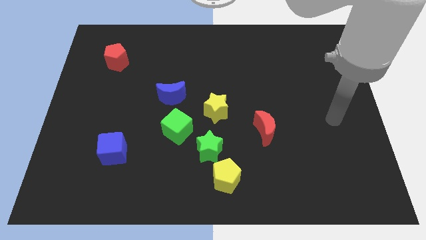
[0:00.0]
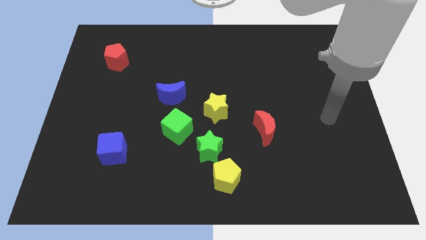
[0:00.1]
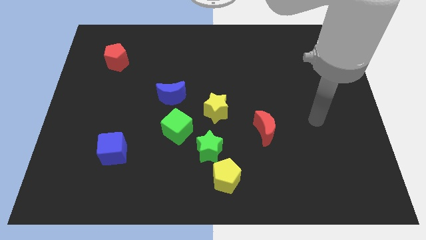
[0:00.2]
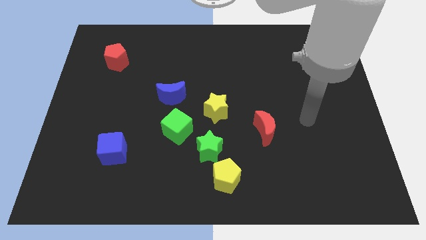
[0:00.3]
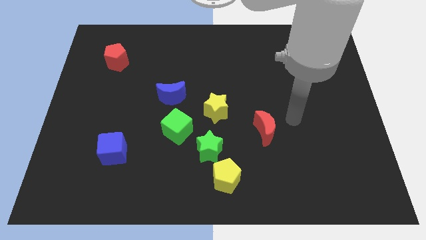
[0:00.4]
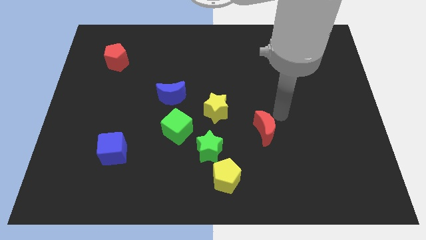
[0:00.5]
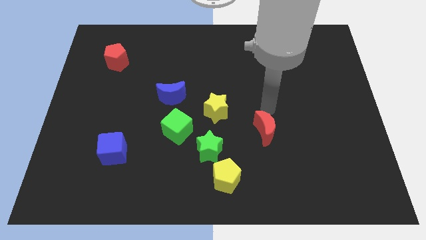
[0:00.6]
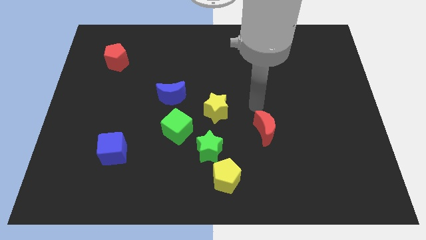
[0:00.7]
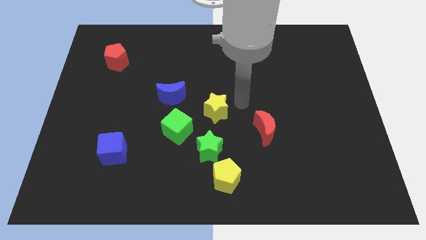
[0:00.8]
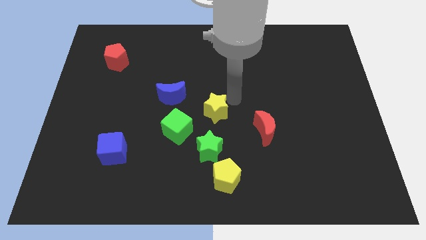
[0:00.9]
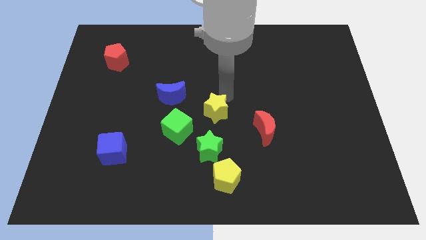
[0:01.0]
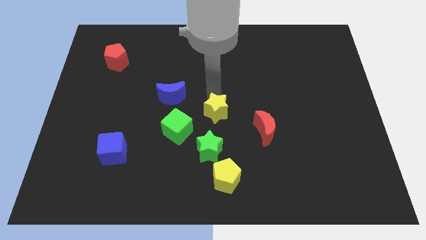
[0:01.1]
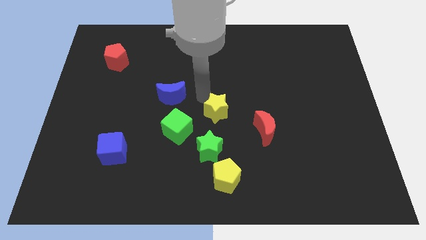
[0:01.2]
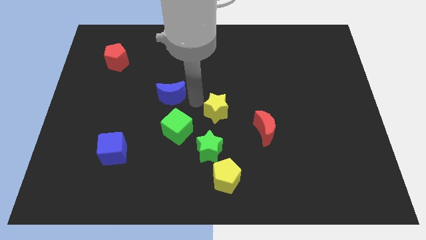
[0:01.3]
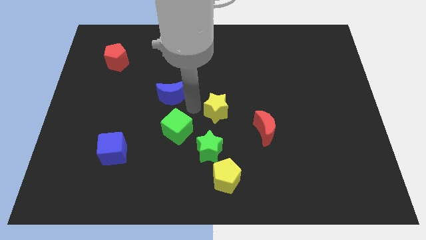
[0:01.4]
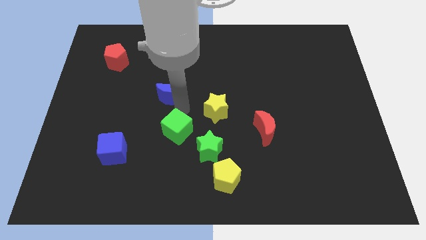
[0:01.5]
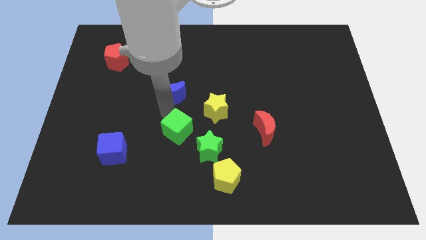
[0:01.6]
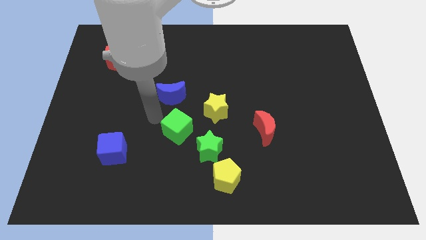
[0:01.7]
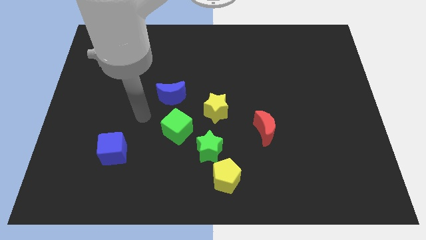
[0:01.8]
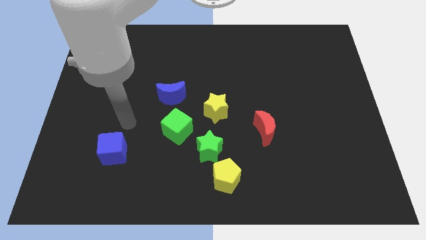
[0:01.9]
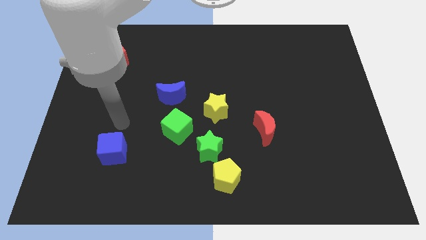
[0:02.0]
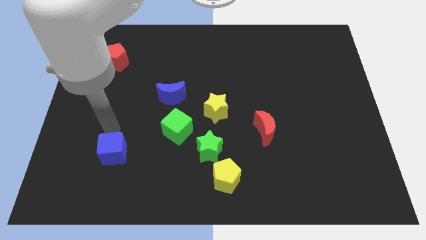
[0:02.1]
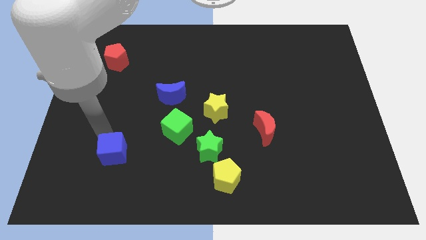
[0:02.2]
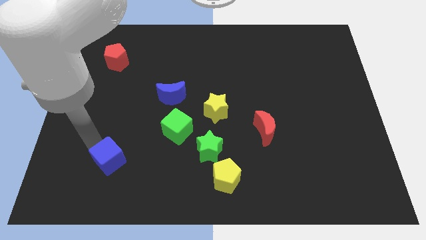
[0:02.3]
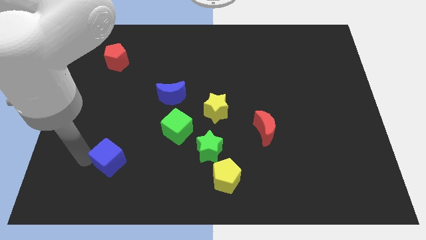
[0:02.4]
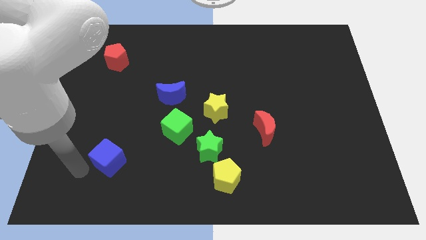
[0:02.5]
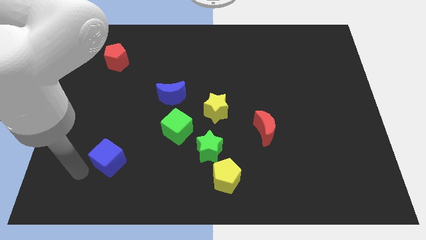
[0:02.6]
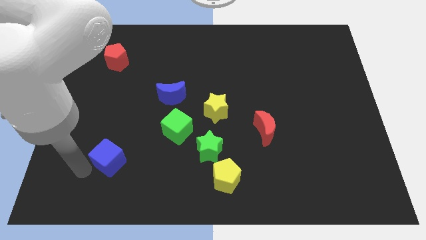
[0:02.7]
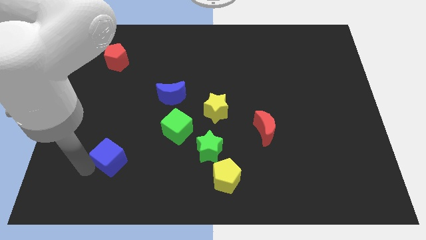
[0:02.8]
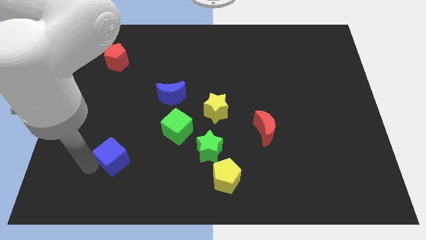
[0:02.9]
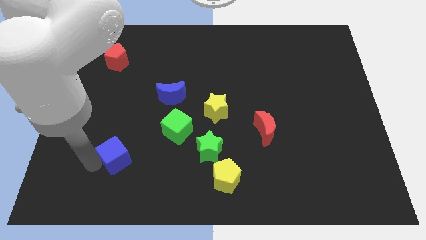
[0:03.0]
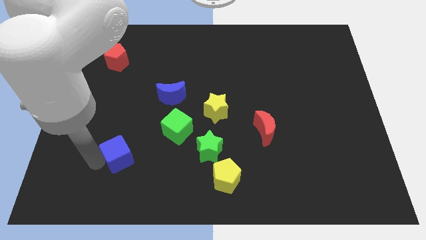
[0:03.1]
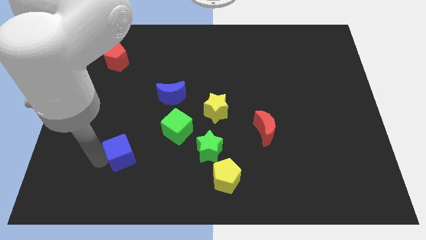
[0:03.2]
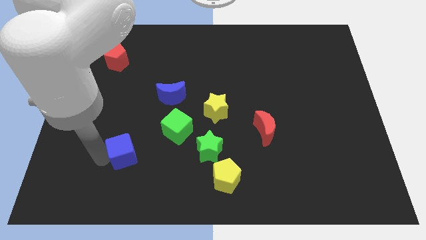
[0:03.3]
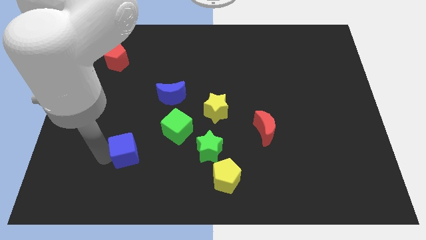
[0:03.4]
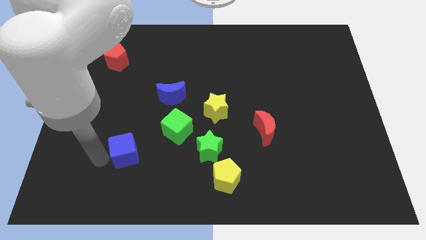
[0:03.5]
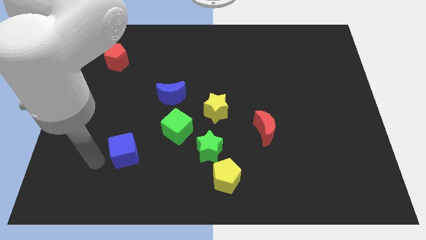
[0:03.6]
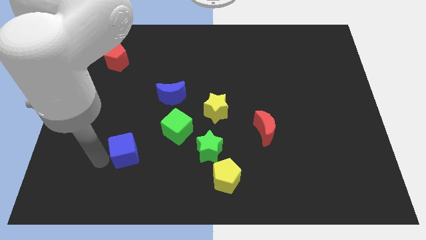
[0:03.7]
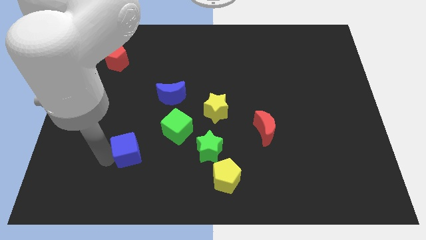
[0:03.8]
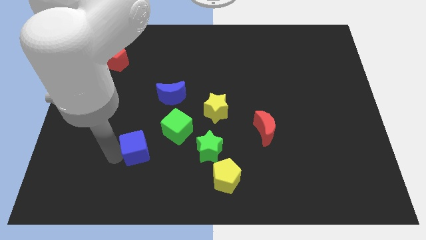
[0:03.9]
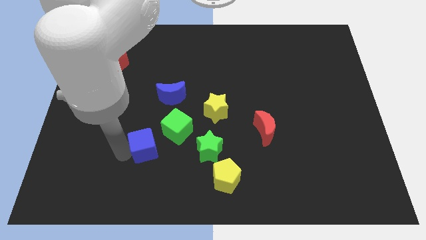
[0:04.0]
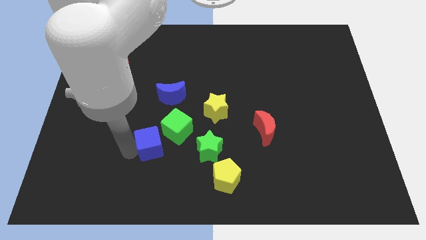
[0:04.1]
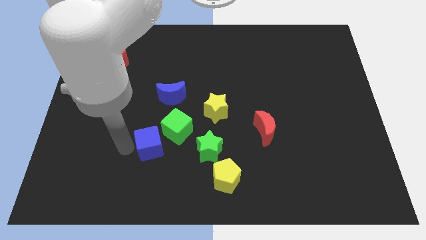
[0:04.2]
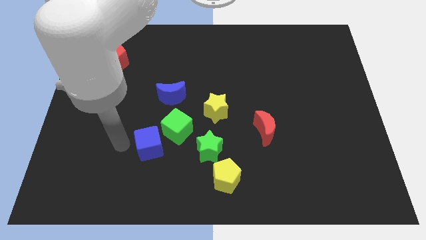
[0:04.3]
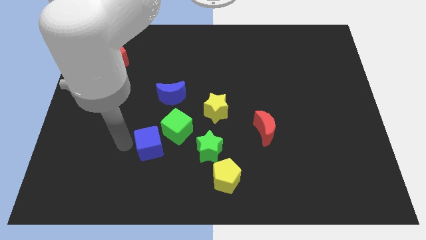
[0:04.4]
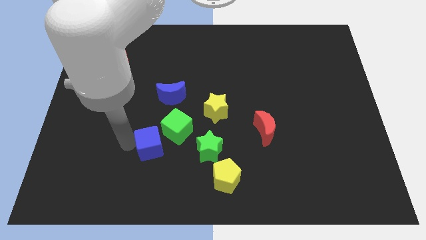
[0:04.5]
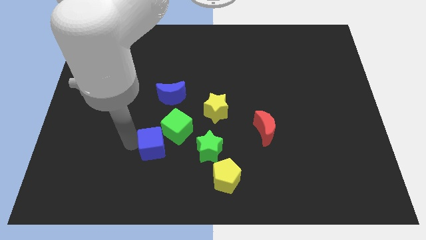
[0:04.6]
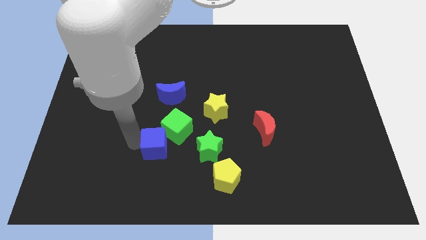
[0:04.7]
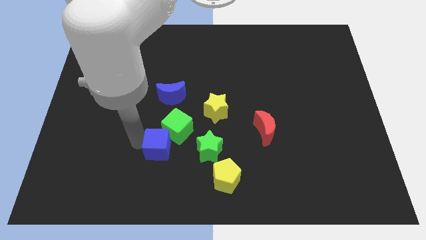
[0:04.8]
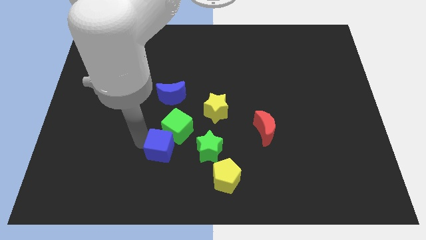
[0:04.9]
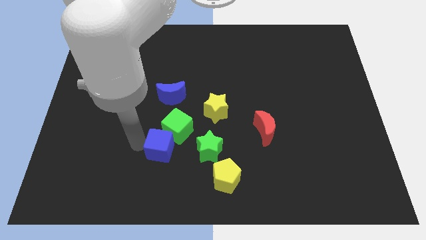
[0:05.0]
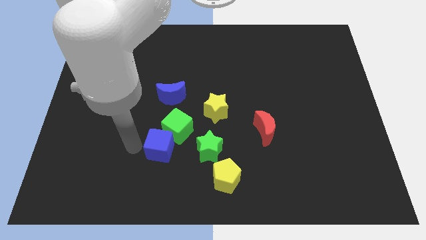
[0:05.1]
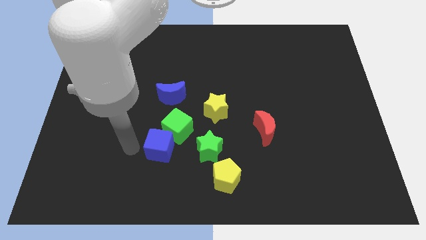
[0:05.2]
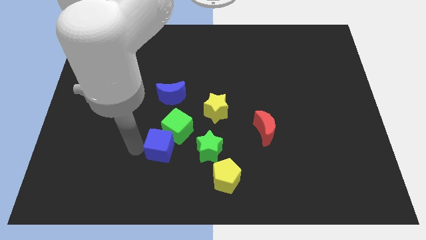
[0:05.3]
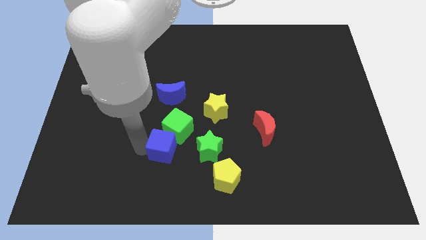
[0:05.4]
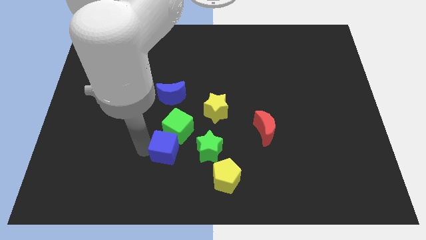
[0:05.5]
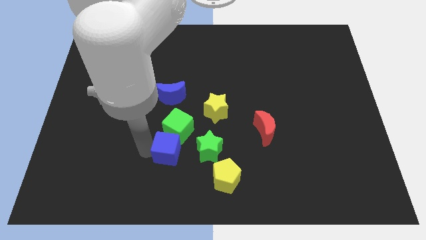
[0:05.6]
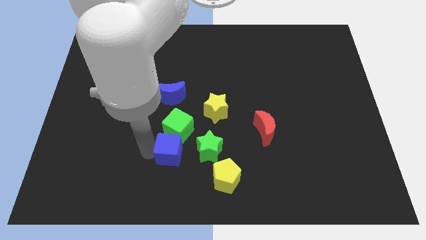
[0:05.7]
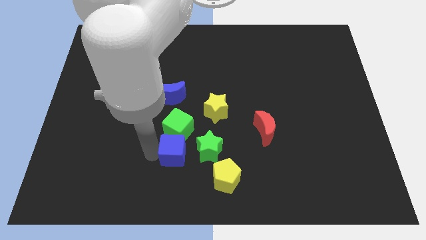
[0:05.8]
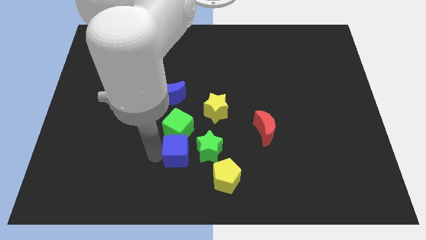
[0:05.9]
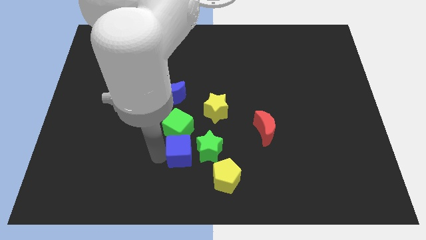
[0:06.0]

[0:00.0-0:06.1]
slide the blue cube next to the green star

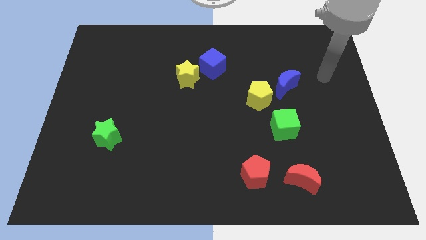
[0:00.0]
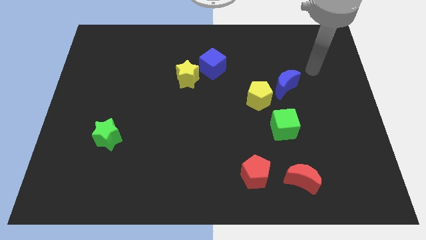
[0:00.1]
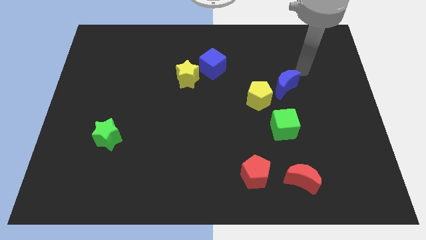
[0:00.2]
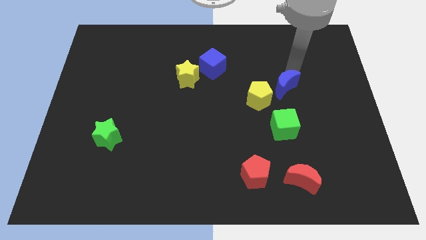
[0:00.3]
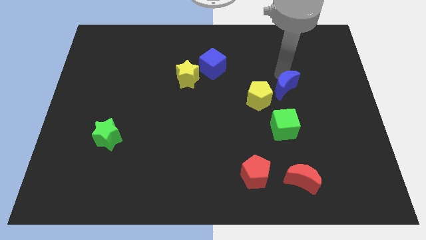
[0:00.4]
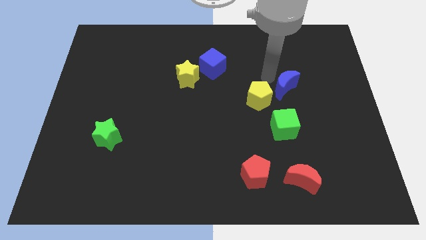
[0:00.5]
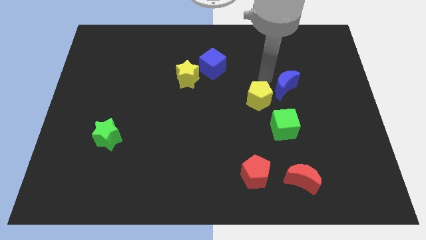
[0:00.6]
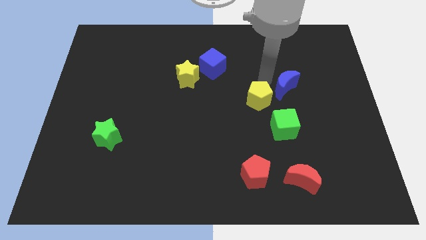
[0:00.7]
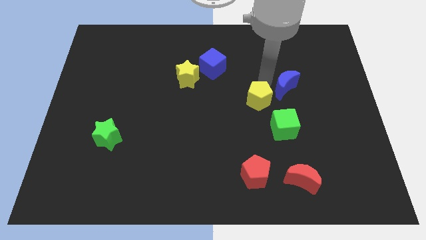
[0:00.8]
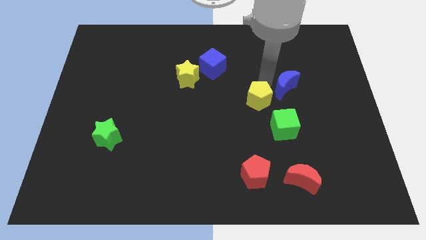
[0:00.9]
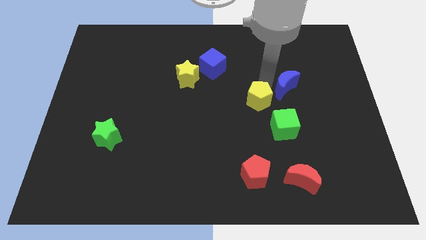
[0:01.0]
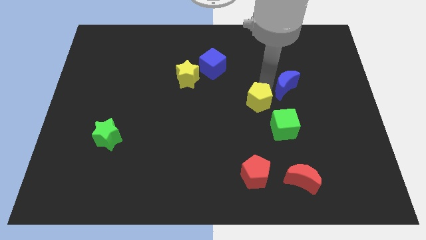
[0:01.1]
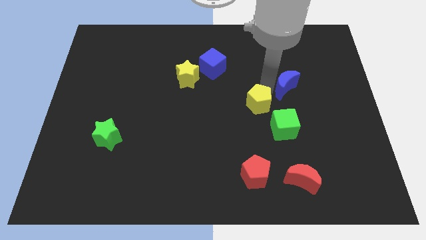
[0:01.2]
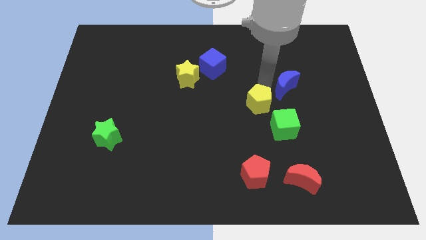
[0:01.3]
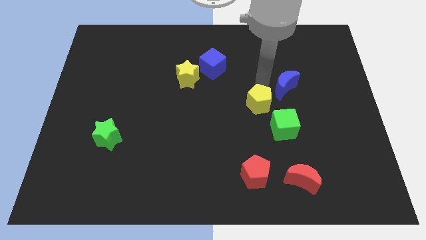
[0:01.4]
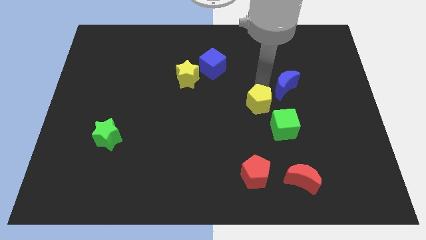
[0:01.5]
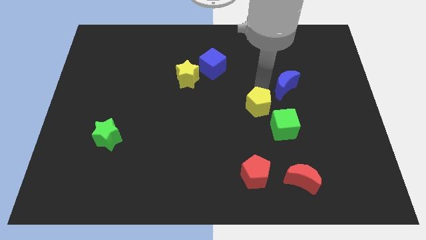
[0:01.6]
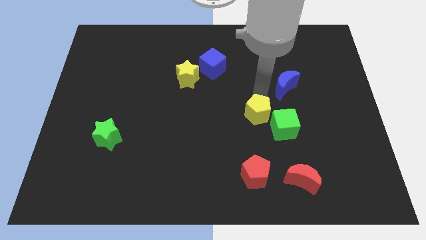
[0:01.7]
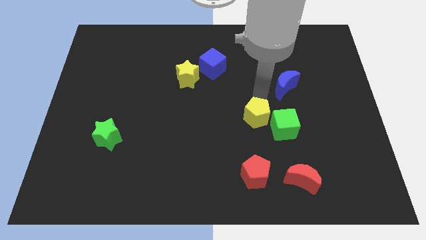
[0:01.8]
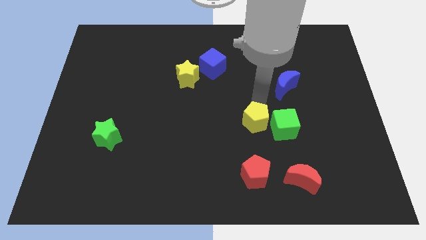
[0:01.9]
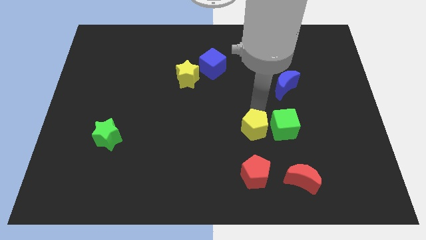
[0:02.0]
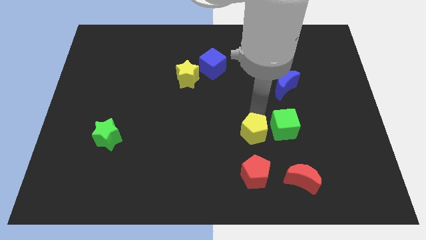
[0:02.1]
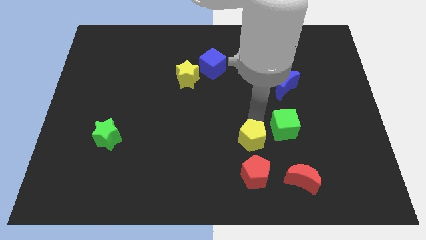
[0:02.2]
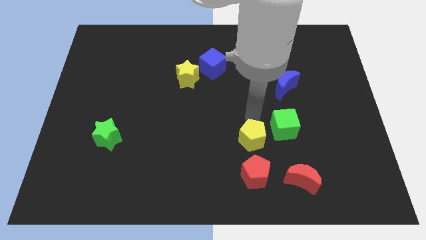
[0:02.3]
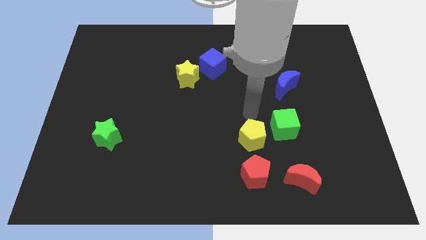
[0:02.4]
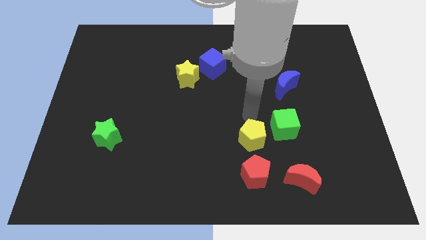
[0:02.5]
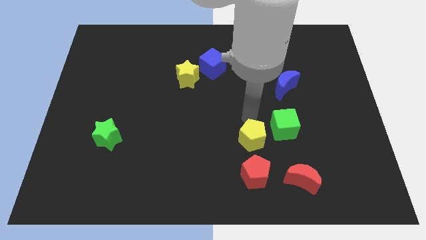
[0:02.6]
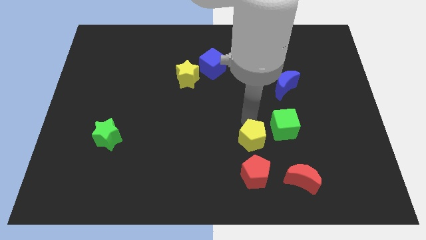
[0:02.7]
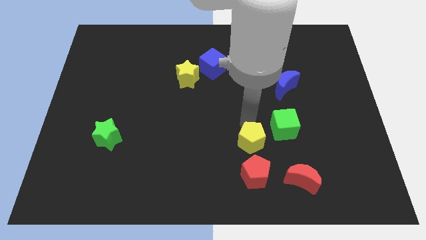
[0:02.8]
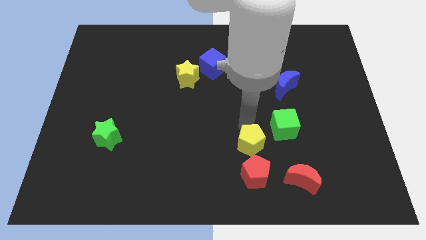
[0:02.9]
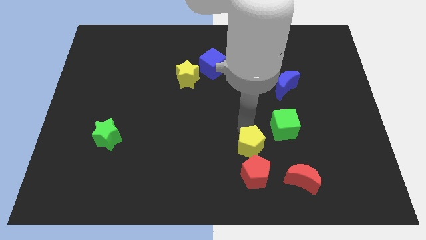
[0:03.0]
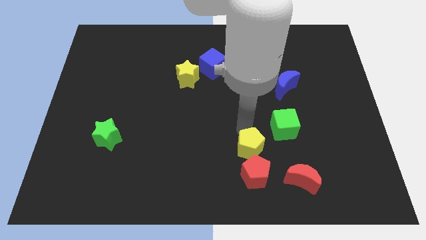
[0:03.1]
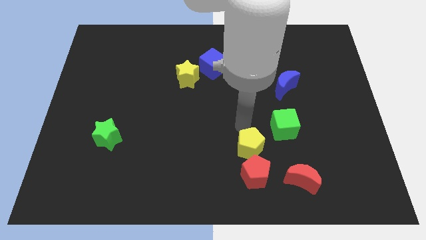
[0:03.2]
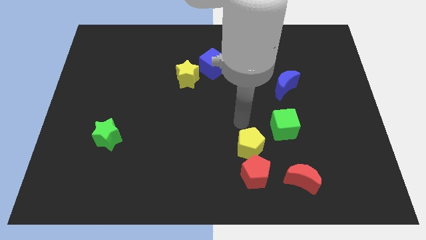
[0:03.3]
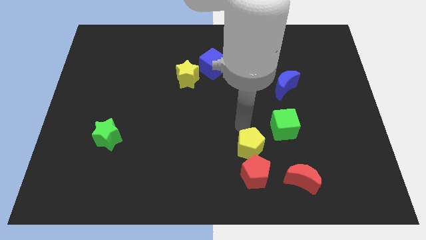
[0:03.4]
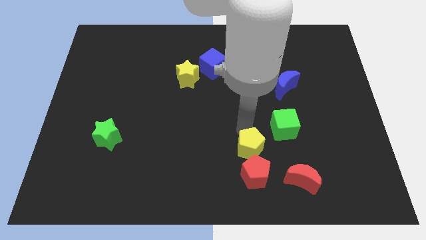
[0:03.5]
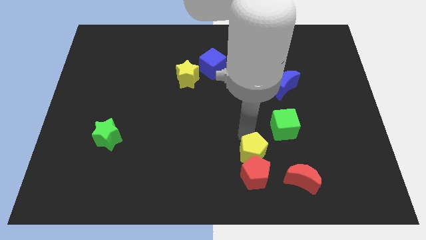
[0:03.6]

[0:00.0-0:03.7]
put the yellow pentagon to the red pentagon
